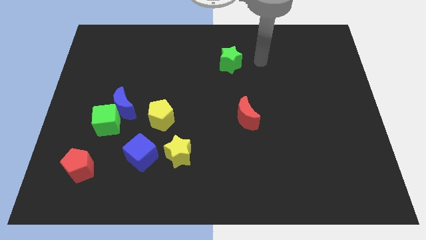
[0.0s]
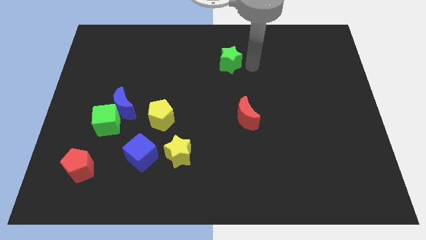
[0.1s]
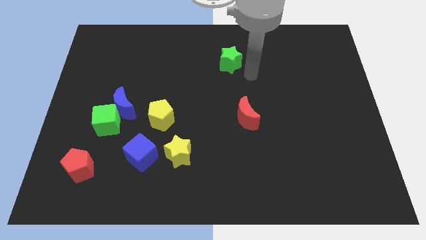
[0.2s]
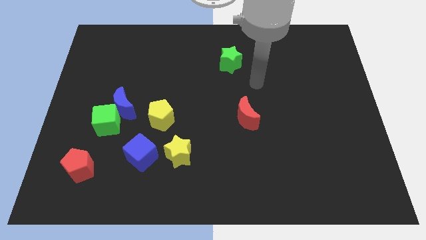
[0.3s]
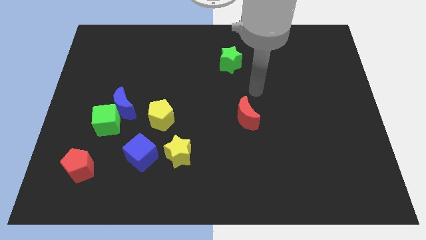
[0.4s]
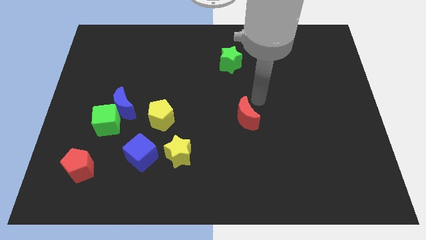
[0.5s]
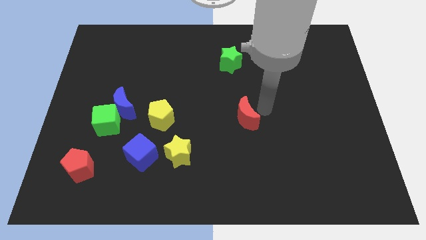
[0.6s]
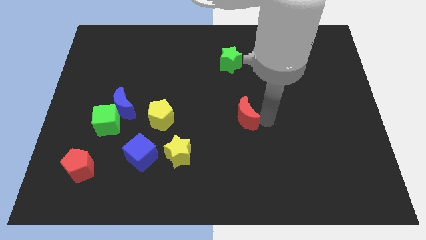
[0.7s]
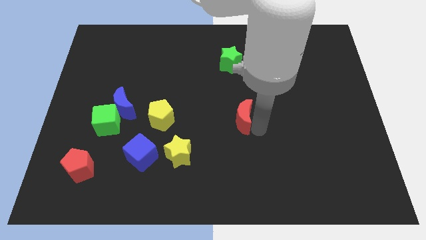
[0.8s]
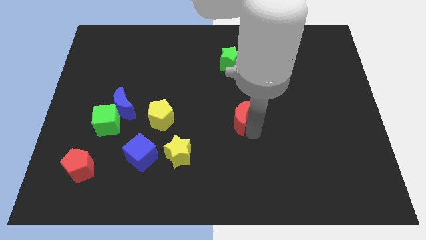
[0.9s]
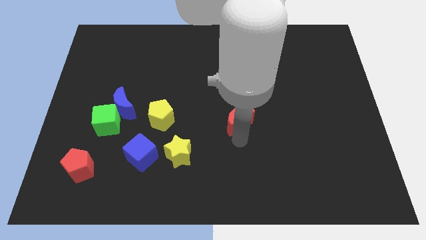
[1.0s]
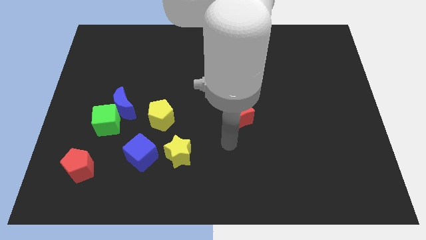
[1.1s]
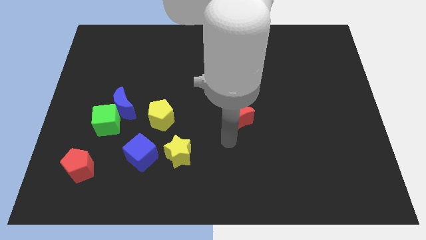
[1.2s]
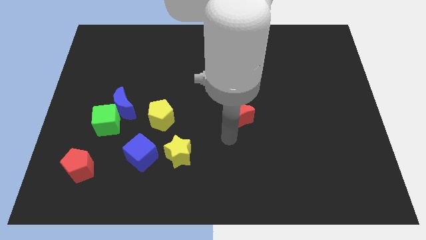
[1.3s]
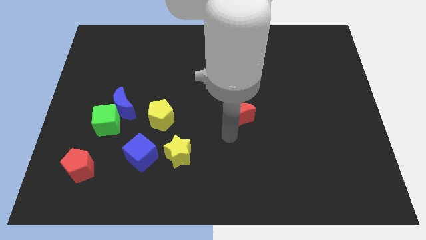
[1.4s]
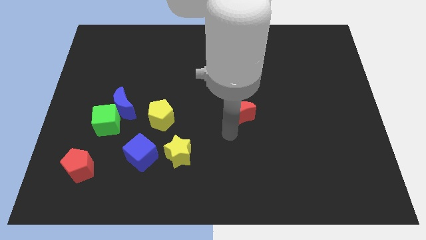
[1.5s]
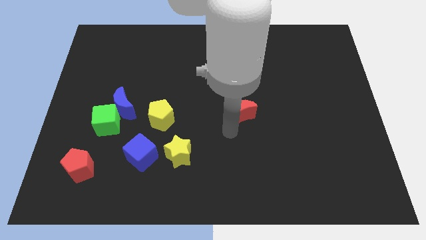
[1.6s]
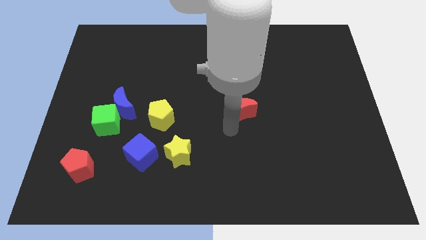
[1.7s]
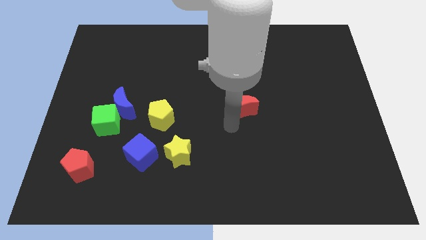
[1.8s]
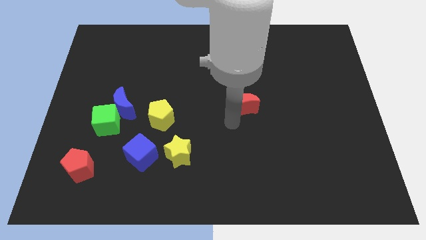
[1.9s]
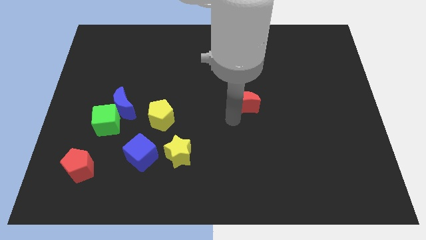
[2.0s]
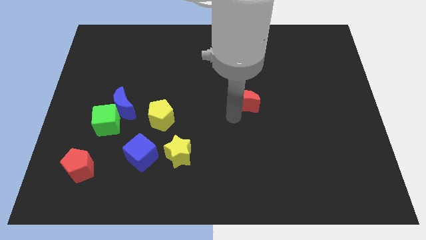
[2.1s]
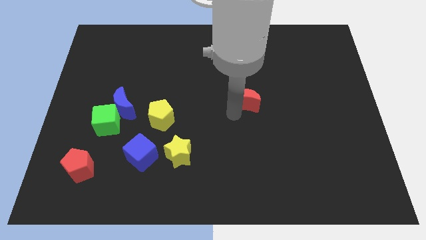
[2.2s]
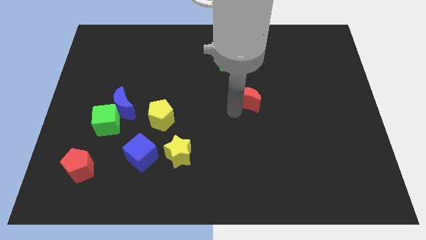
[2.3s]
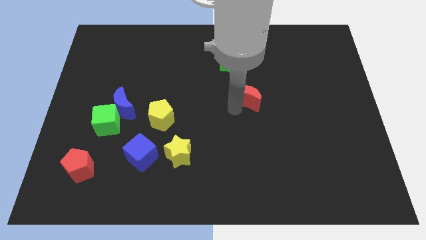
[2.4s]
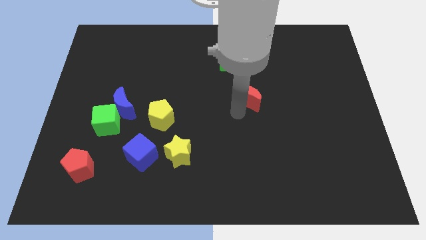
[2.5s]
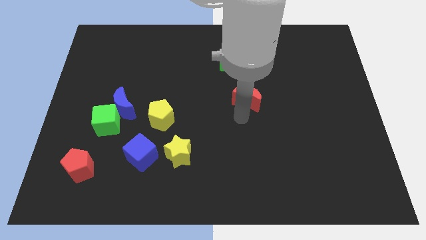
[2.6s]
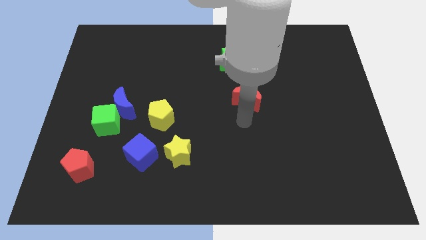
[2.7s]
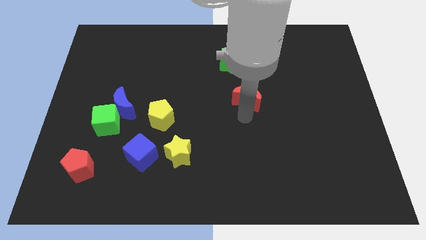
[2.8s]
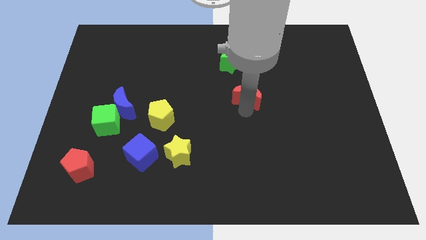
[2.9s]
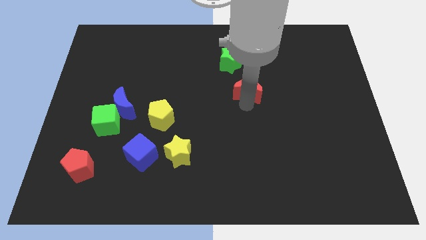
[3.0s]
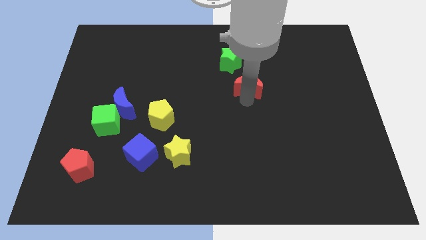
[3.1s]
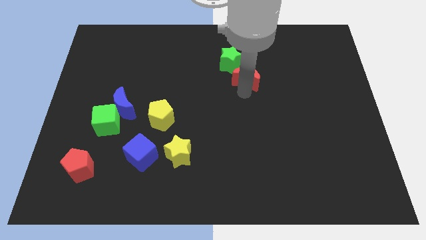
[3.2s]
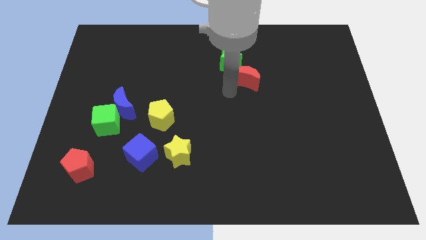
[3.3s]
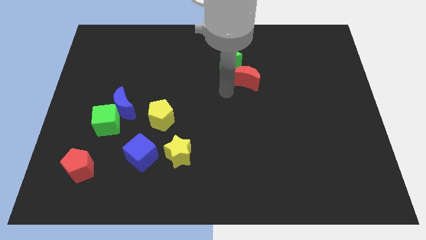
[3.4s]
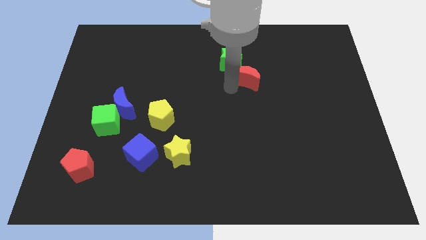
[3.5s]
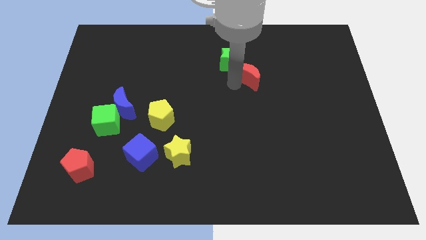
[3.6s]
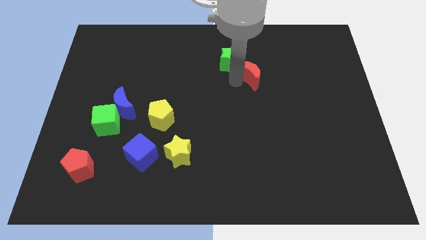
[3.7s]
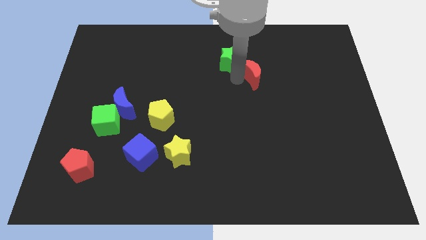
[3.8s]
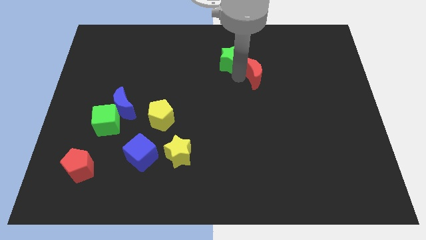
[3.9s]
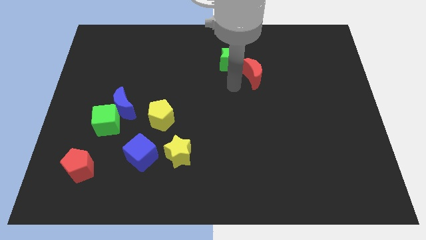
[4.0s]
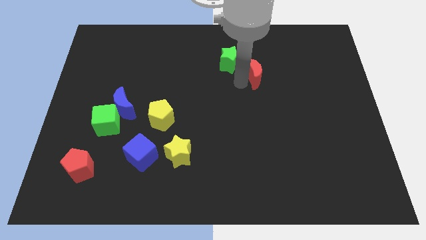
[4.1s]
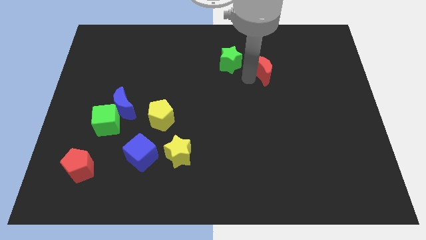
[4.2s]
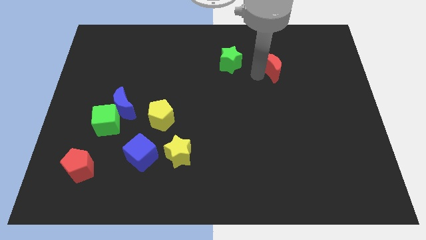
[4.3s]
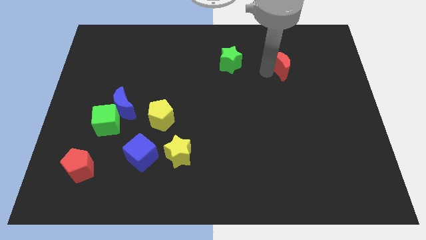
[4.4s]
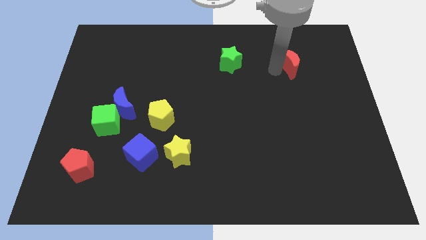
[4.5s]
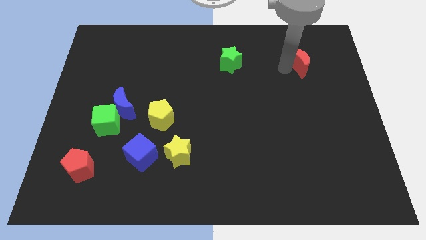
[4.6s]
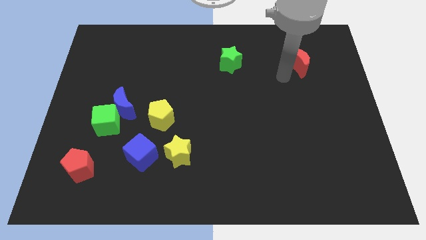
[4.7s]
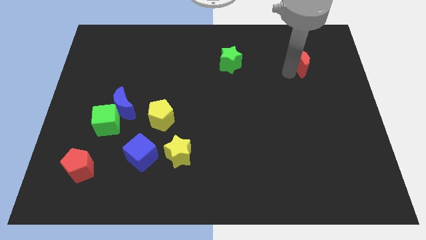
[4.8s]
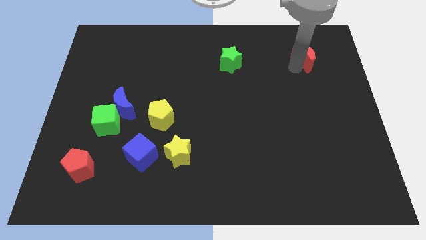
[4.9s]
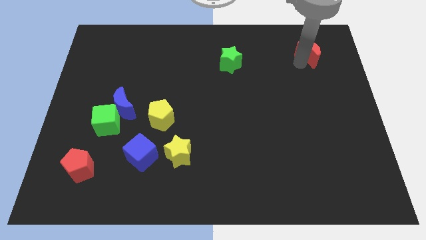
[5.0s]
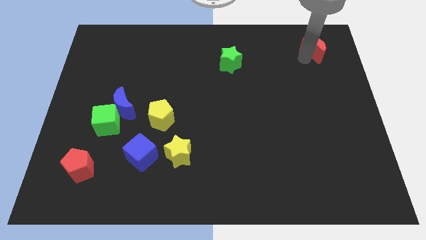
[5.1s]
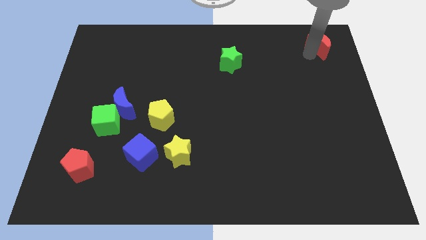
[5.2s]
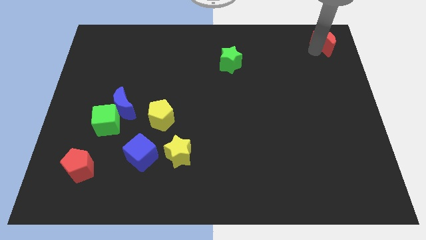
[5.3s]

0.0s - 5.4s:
move the red moon to the top right corner

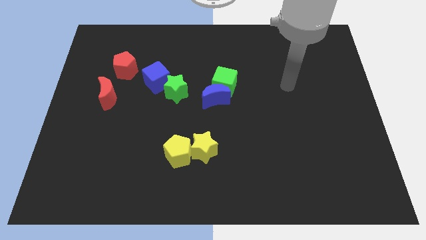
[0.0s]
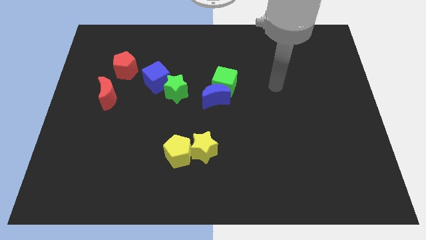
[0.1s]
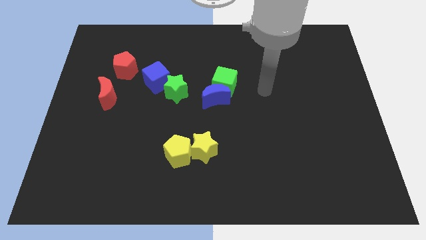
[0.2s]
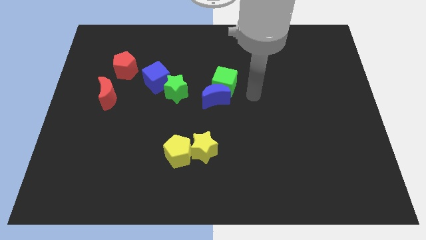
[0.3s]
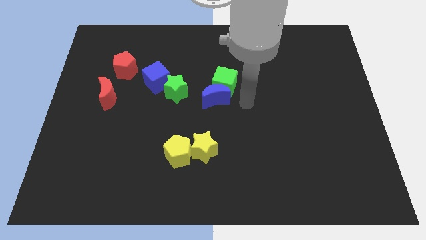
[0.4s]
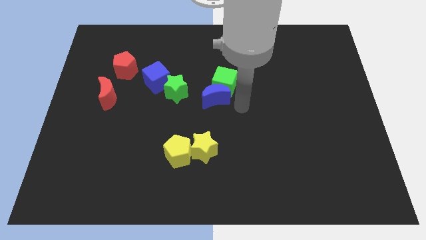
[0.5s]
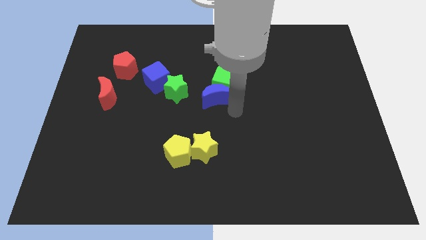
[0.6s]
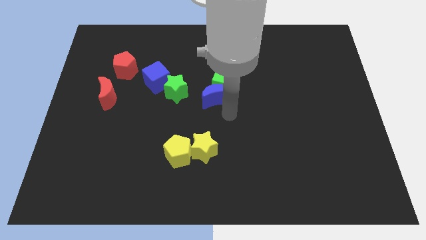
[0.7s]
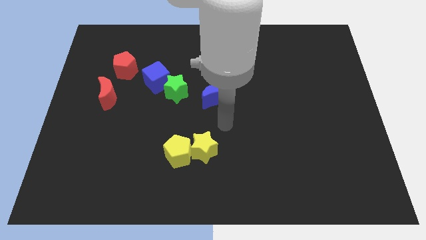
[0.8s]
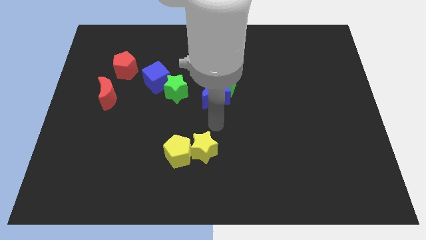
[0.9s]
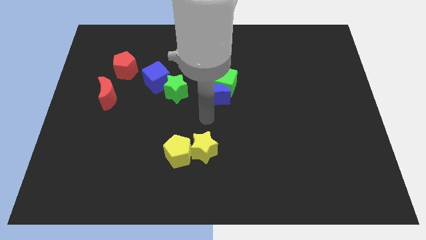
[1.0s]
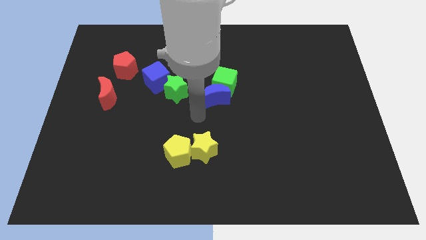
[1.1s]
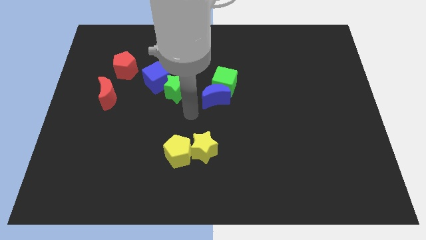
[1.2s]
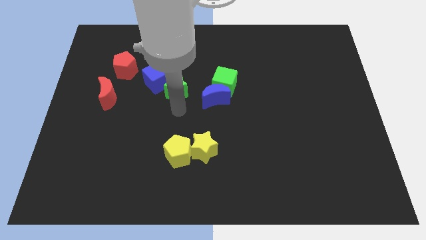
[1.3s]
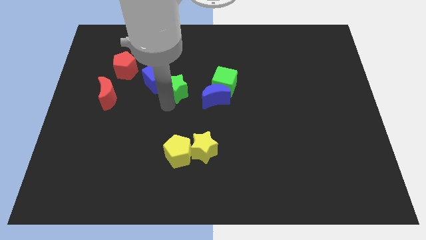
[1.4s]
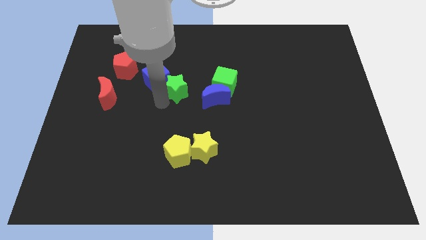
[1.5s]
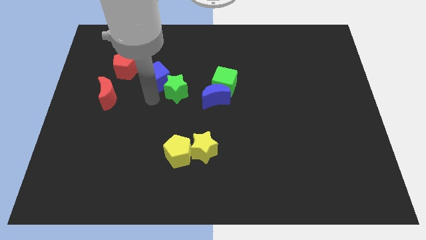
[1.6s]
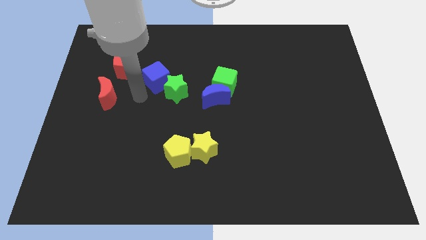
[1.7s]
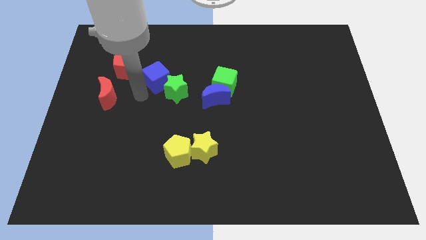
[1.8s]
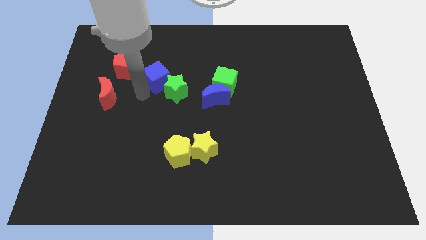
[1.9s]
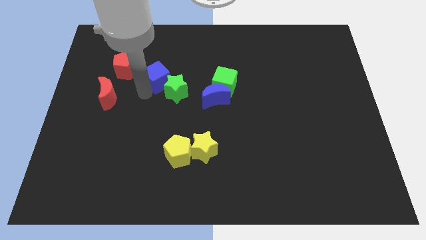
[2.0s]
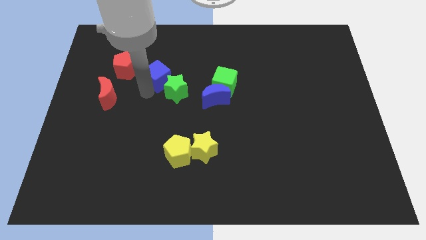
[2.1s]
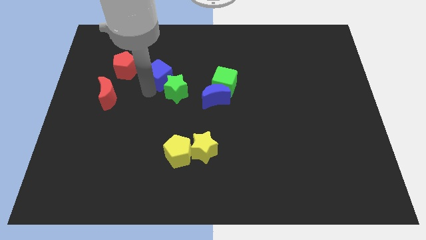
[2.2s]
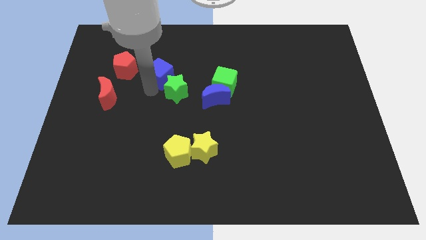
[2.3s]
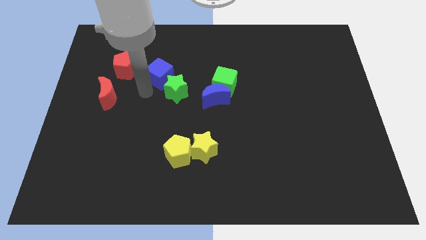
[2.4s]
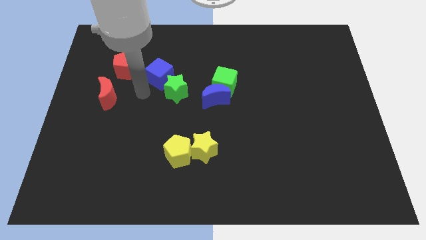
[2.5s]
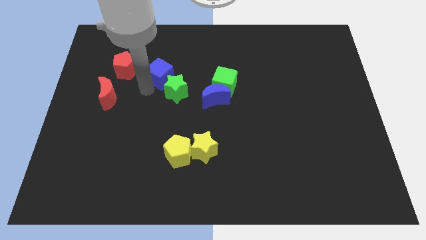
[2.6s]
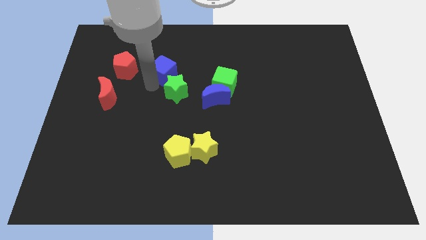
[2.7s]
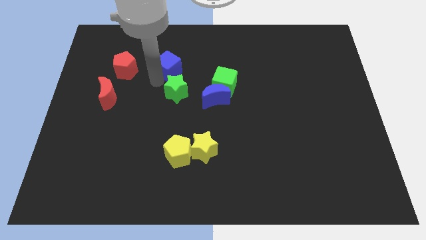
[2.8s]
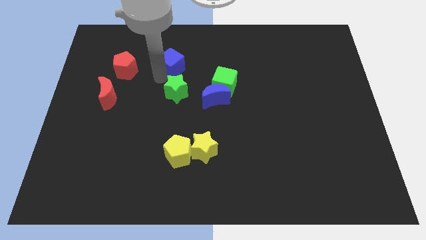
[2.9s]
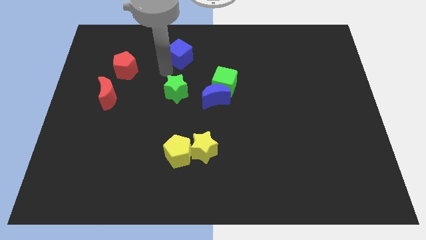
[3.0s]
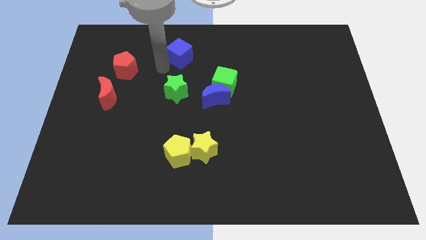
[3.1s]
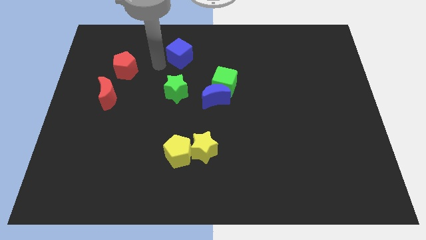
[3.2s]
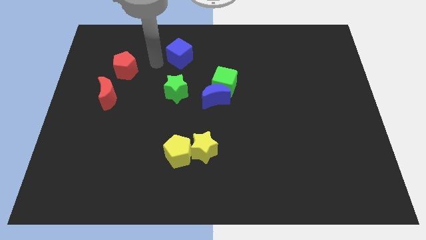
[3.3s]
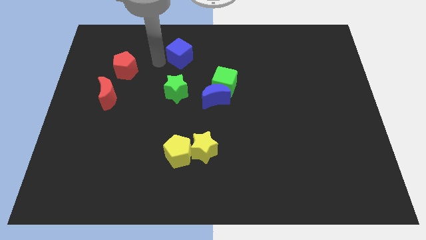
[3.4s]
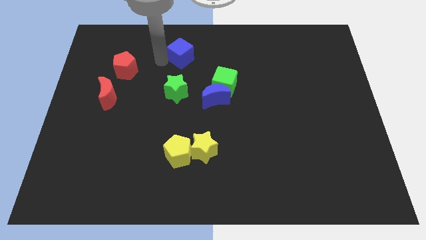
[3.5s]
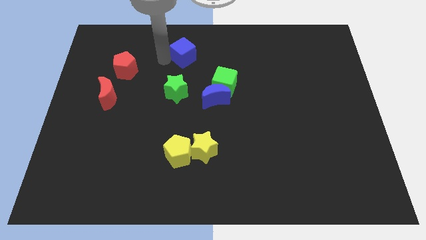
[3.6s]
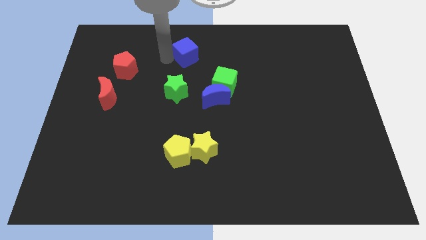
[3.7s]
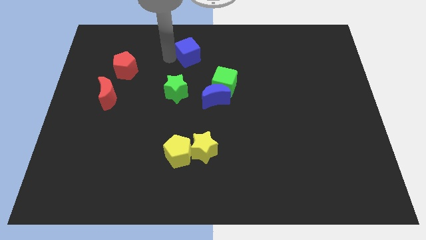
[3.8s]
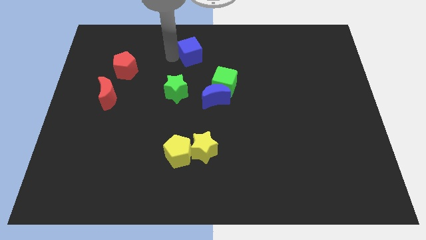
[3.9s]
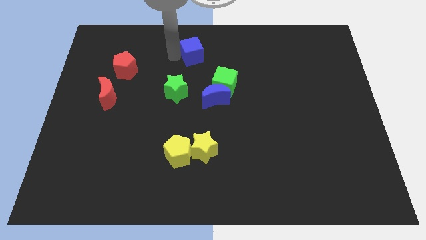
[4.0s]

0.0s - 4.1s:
put the blue cube to the towards your base
